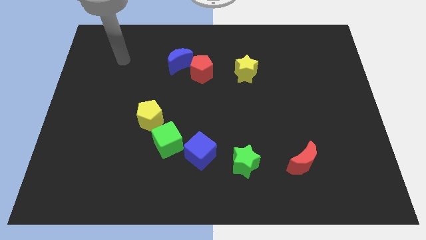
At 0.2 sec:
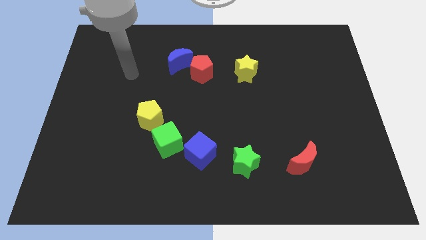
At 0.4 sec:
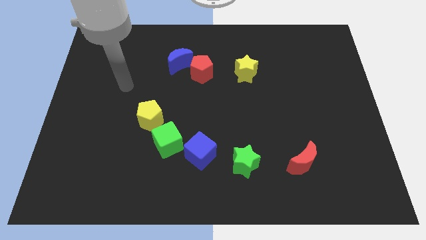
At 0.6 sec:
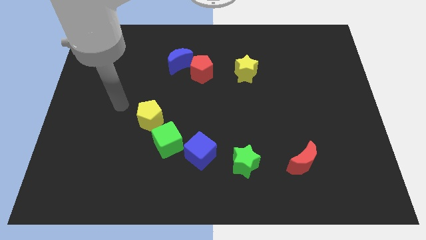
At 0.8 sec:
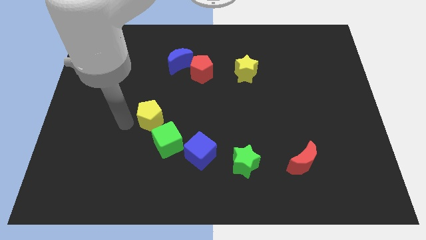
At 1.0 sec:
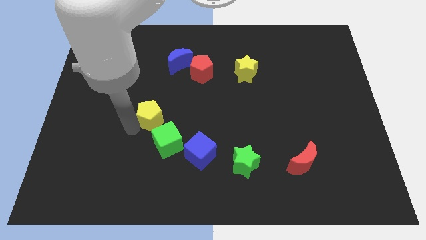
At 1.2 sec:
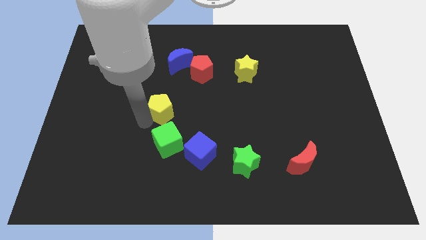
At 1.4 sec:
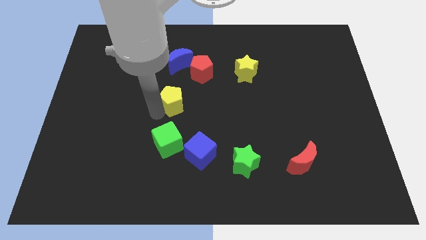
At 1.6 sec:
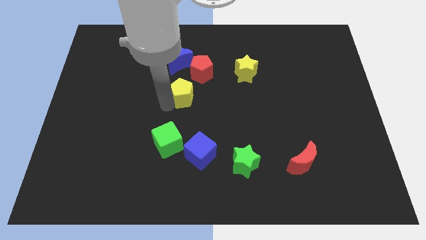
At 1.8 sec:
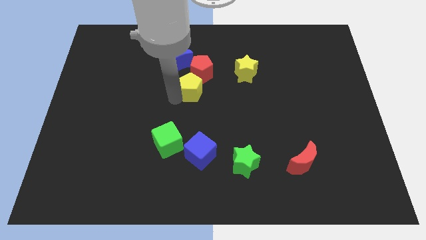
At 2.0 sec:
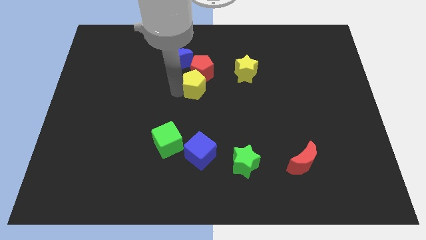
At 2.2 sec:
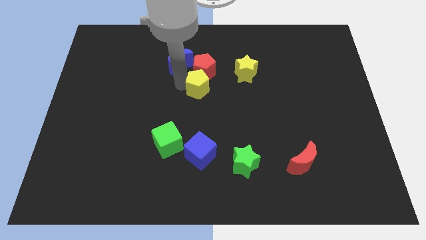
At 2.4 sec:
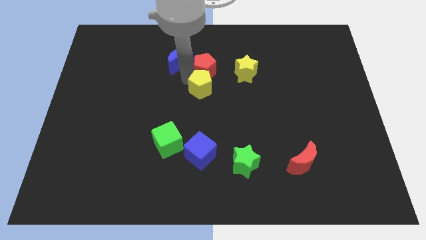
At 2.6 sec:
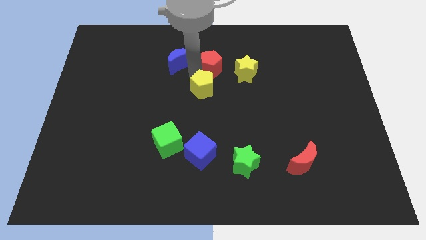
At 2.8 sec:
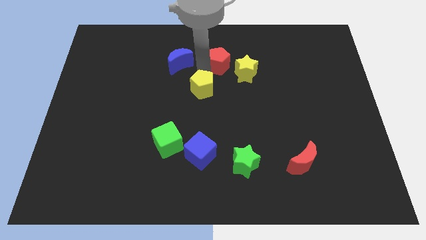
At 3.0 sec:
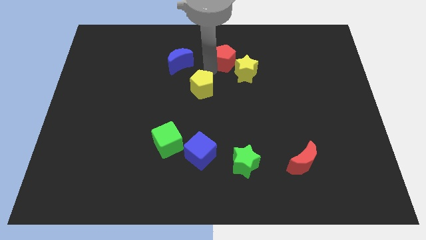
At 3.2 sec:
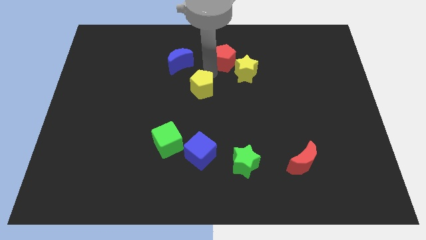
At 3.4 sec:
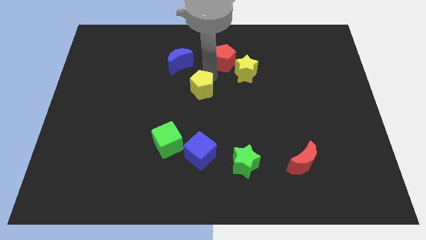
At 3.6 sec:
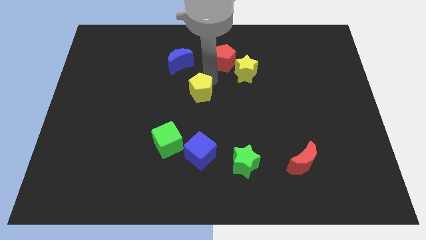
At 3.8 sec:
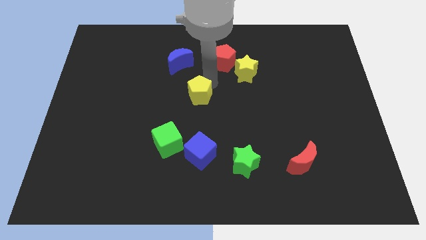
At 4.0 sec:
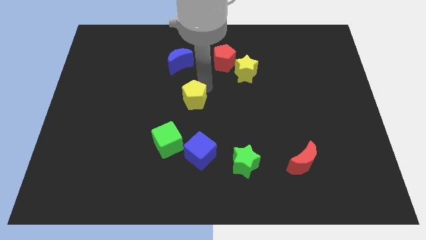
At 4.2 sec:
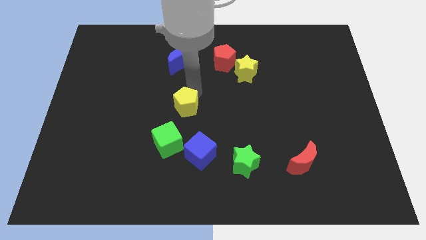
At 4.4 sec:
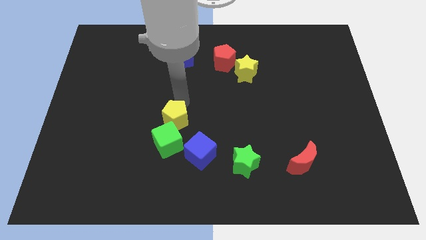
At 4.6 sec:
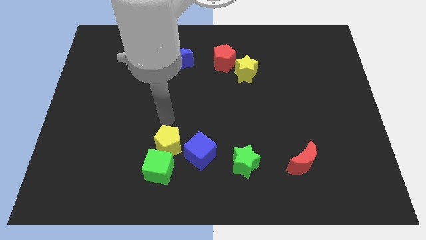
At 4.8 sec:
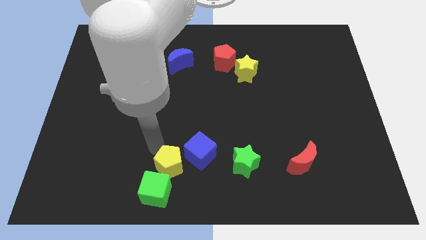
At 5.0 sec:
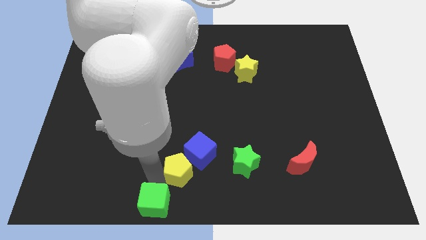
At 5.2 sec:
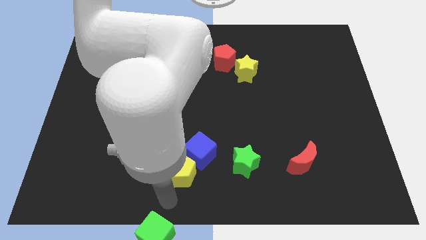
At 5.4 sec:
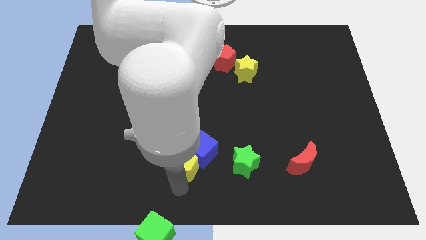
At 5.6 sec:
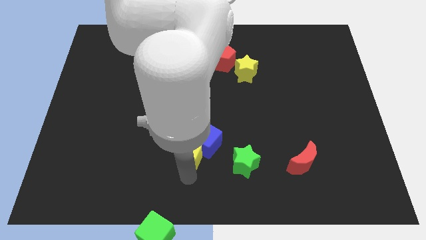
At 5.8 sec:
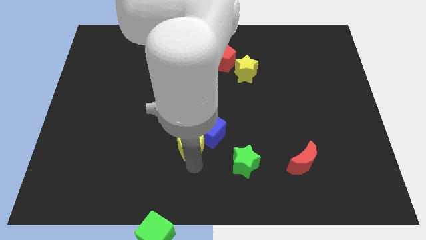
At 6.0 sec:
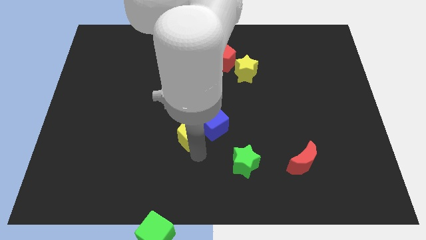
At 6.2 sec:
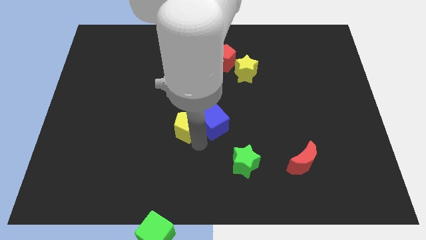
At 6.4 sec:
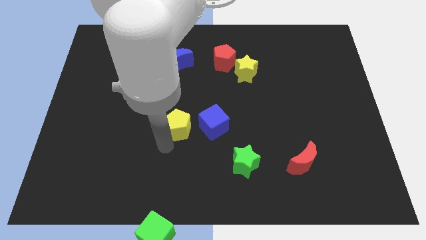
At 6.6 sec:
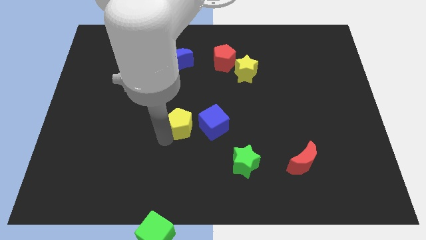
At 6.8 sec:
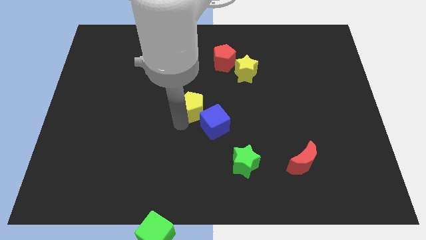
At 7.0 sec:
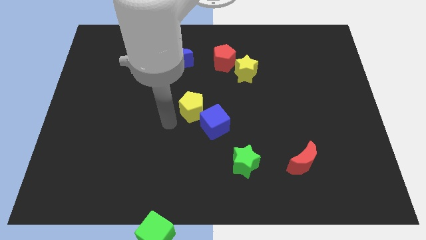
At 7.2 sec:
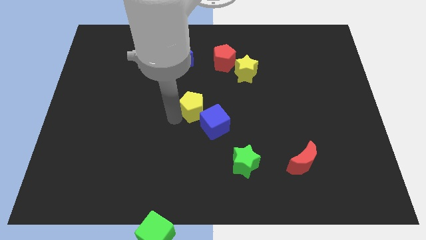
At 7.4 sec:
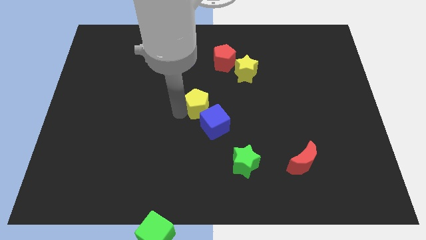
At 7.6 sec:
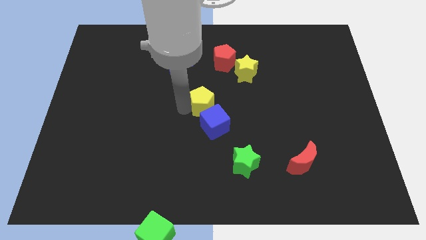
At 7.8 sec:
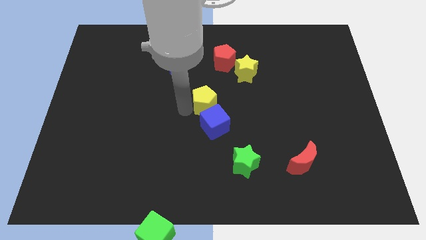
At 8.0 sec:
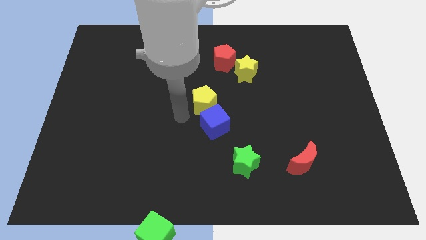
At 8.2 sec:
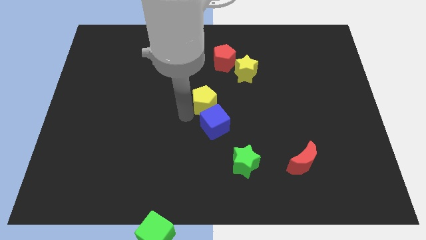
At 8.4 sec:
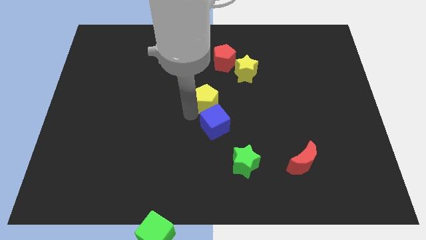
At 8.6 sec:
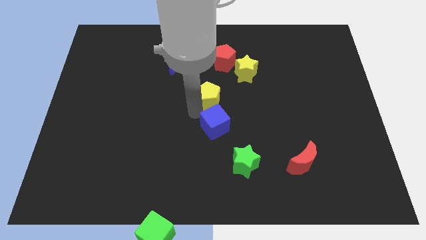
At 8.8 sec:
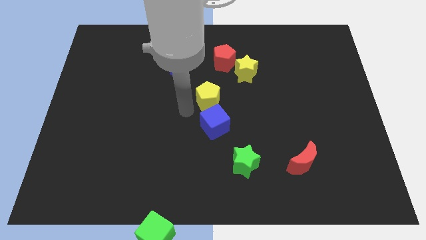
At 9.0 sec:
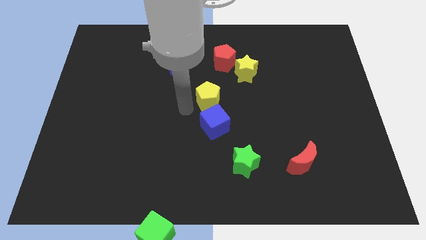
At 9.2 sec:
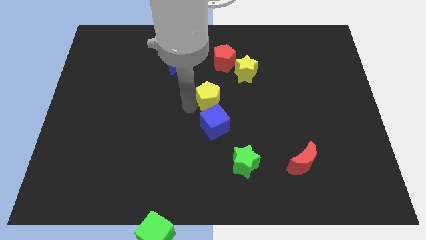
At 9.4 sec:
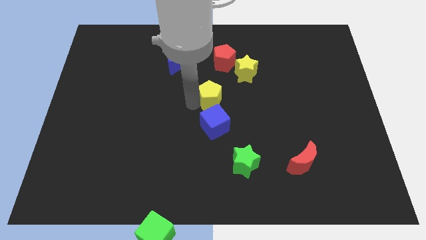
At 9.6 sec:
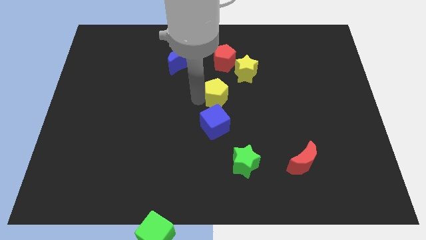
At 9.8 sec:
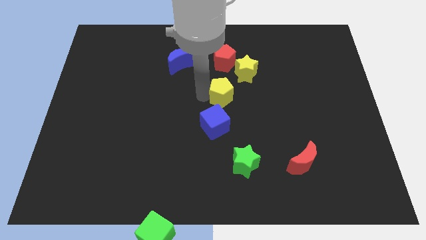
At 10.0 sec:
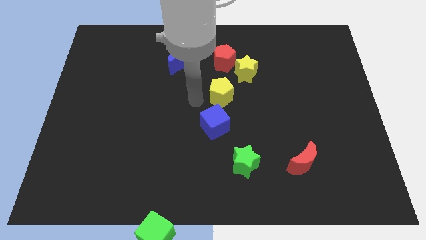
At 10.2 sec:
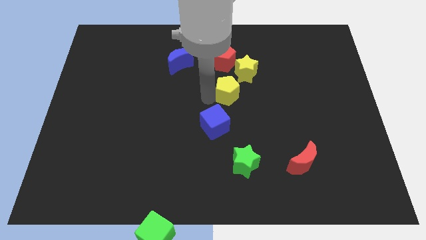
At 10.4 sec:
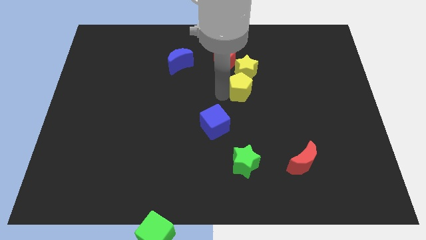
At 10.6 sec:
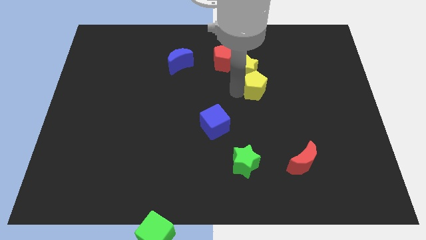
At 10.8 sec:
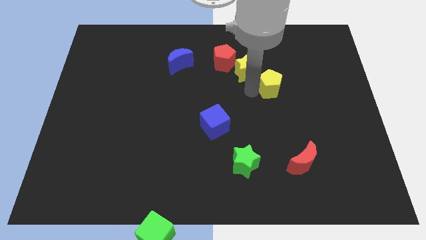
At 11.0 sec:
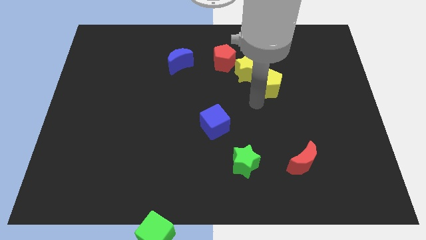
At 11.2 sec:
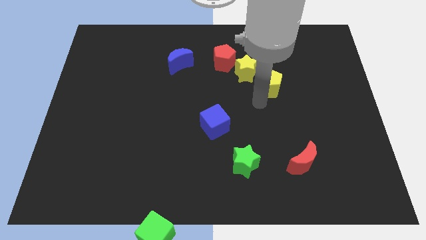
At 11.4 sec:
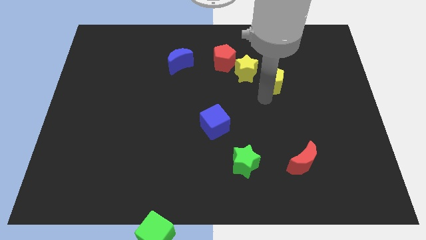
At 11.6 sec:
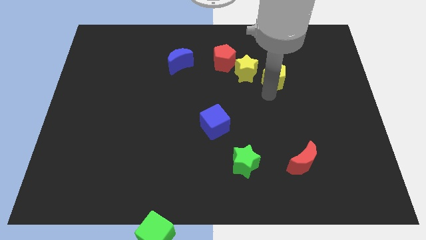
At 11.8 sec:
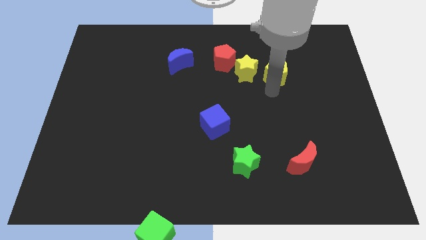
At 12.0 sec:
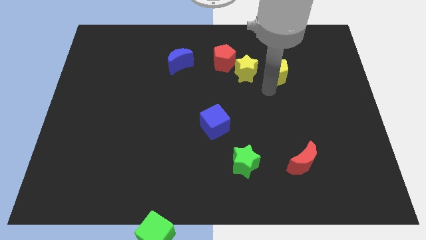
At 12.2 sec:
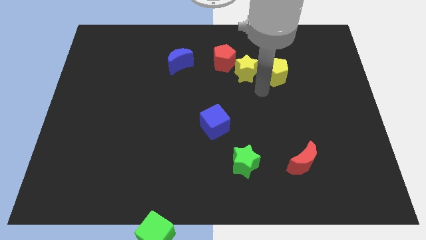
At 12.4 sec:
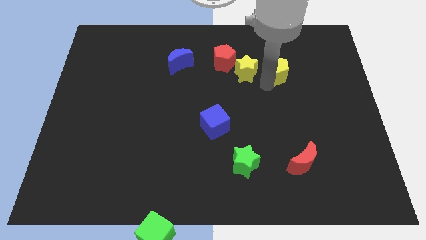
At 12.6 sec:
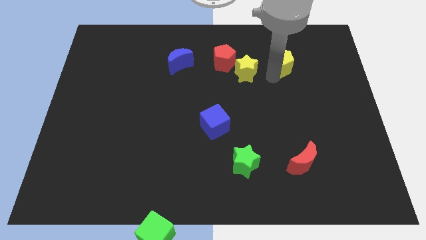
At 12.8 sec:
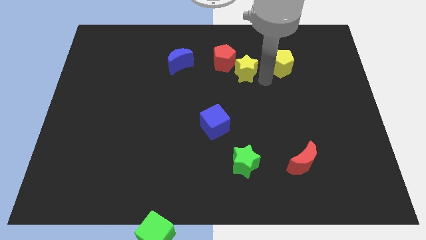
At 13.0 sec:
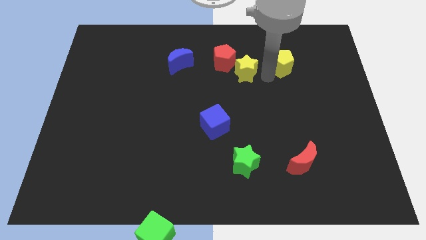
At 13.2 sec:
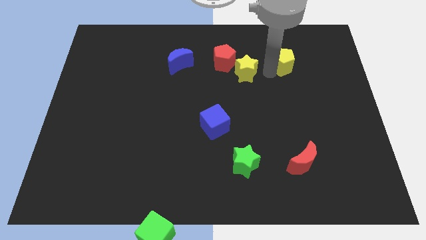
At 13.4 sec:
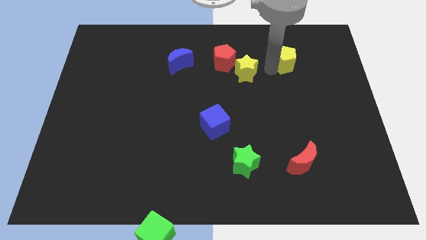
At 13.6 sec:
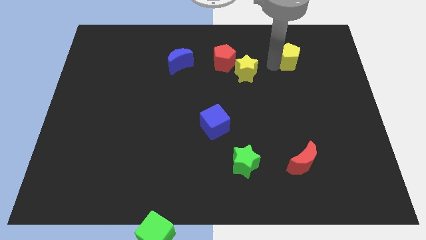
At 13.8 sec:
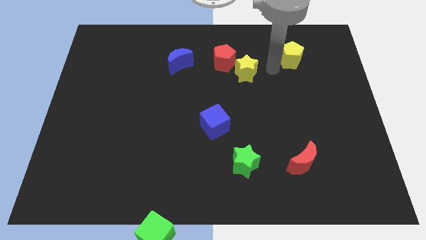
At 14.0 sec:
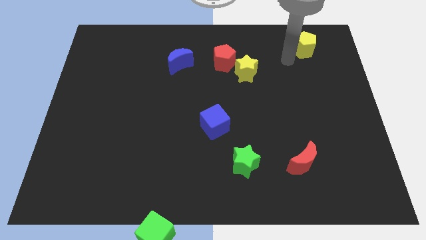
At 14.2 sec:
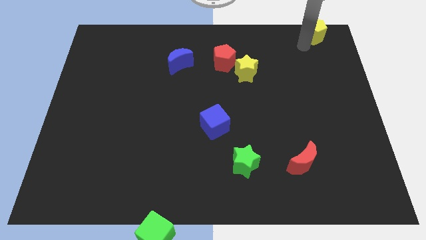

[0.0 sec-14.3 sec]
slide the yellow pentagon to the top right corner

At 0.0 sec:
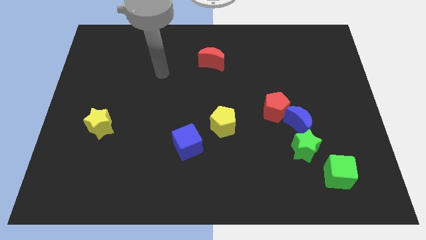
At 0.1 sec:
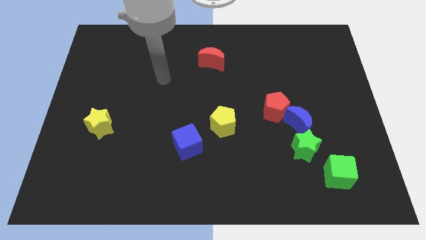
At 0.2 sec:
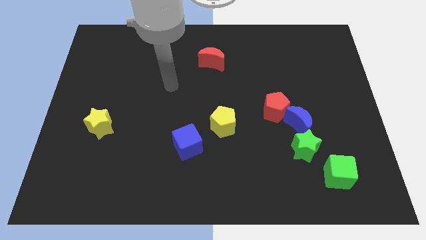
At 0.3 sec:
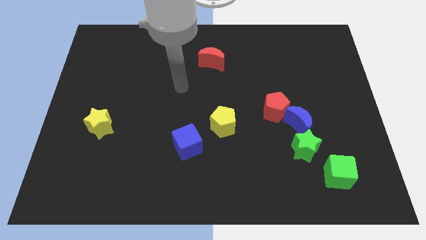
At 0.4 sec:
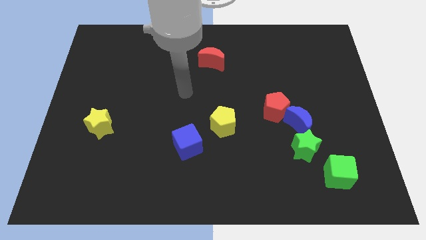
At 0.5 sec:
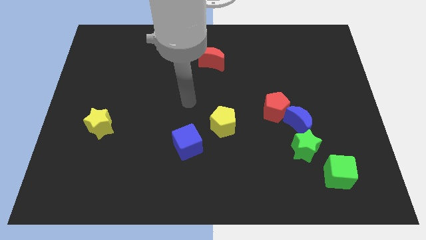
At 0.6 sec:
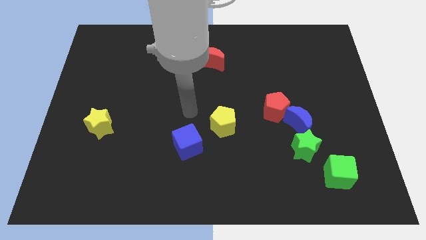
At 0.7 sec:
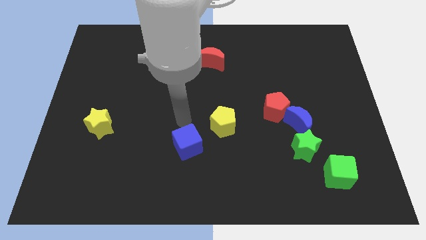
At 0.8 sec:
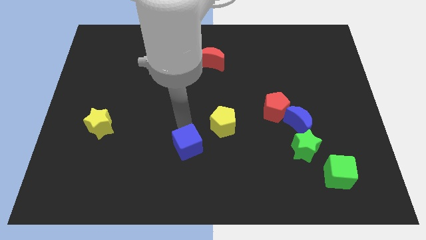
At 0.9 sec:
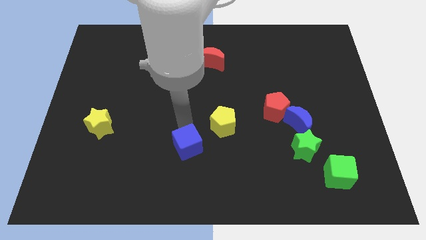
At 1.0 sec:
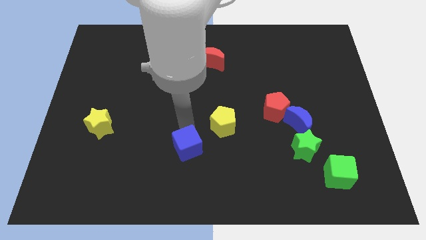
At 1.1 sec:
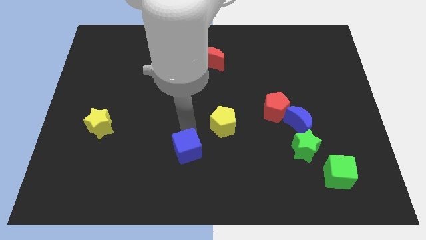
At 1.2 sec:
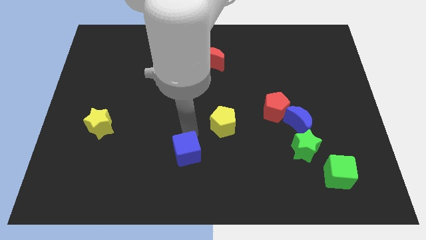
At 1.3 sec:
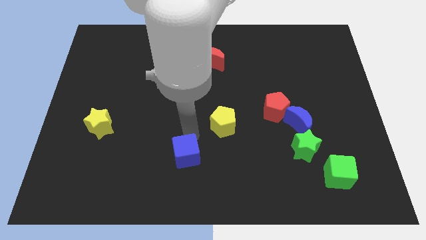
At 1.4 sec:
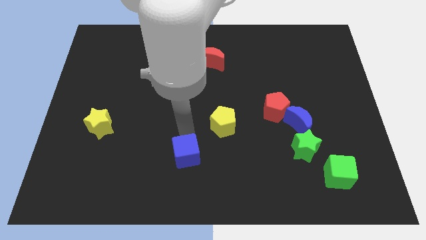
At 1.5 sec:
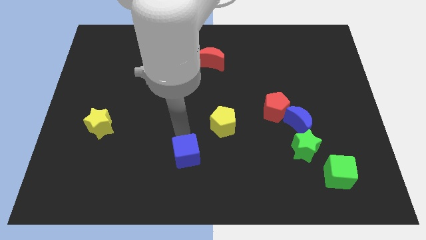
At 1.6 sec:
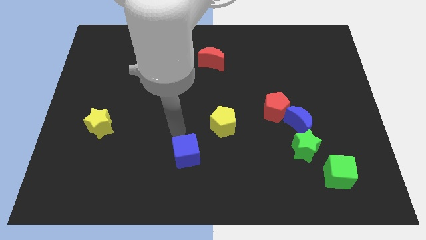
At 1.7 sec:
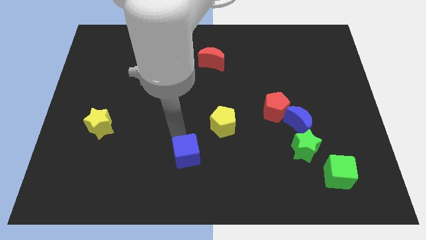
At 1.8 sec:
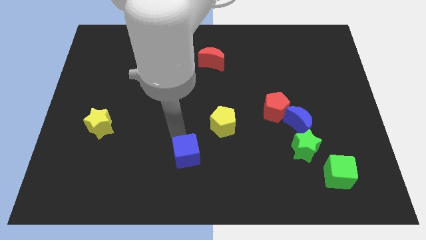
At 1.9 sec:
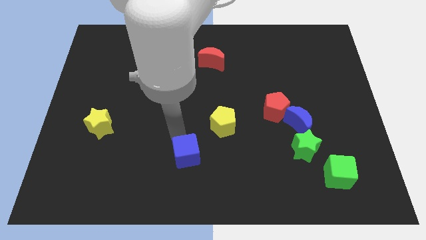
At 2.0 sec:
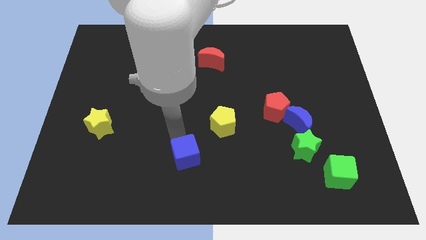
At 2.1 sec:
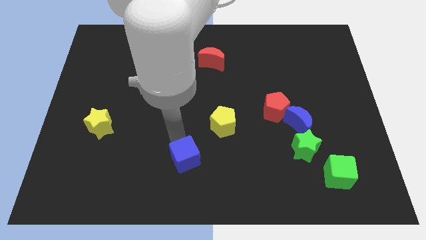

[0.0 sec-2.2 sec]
put the blue cube to the bottom
